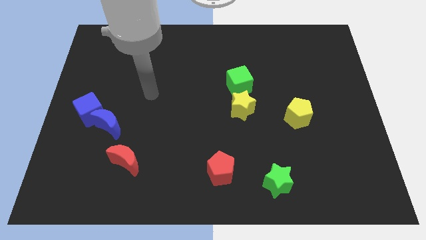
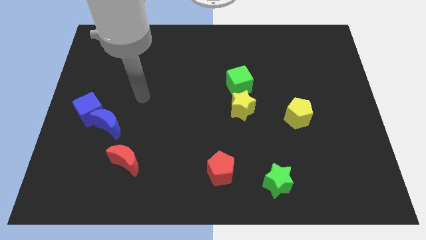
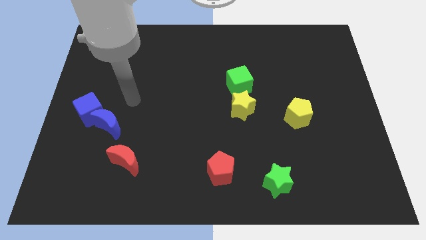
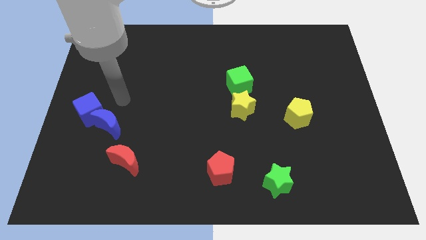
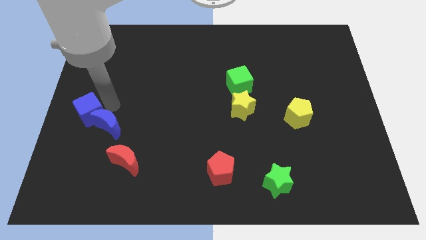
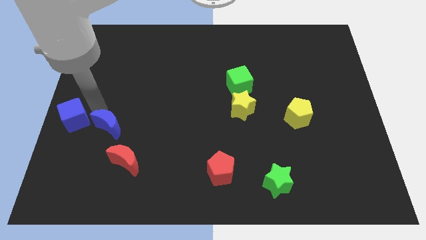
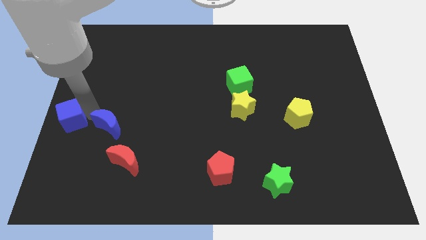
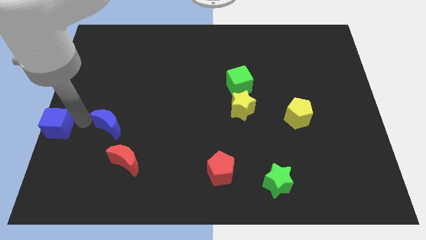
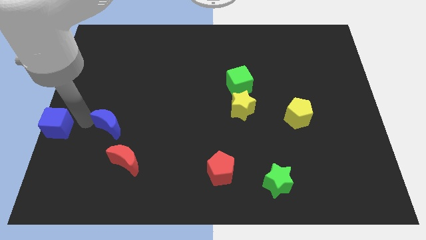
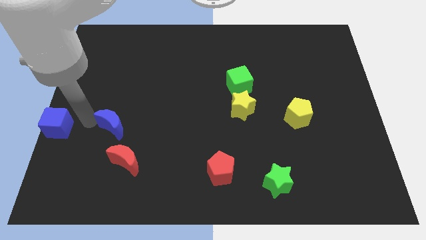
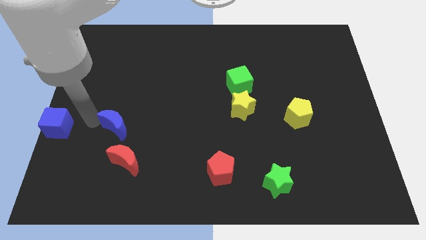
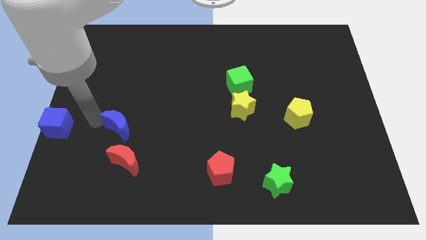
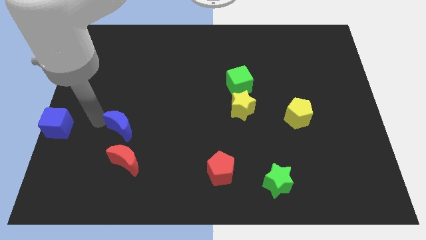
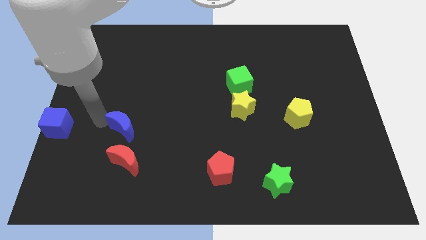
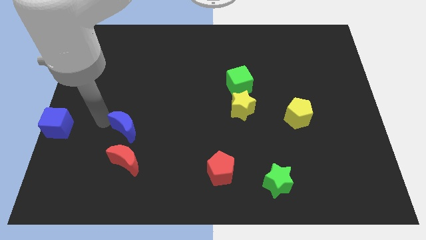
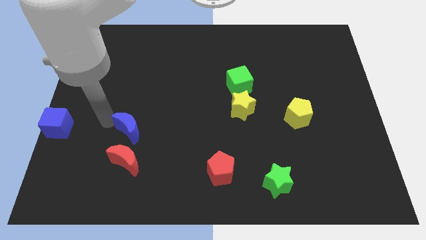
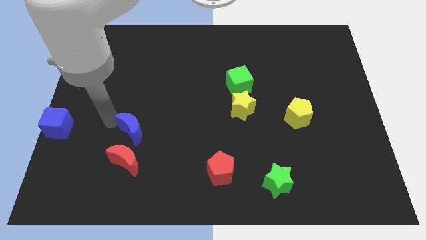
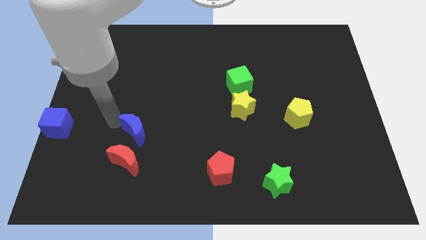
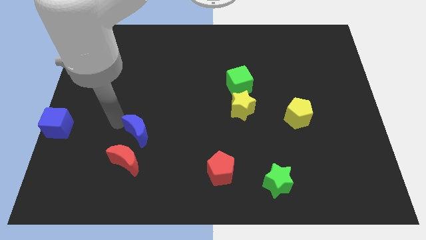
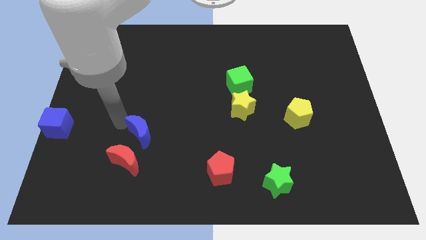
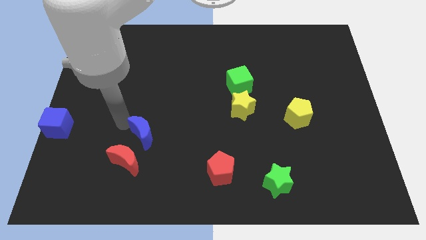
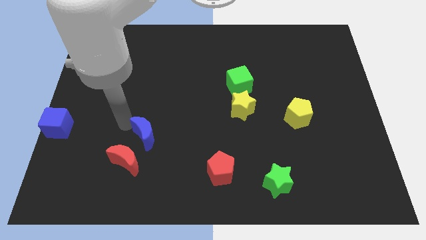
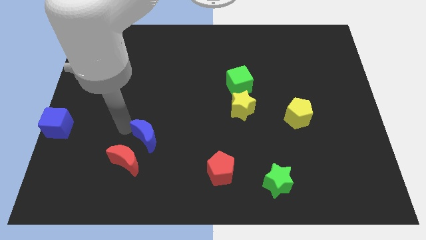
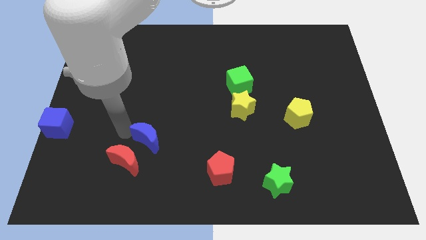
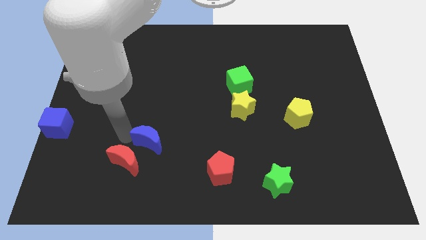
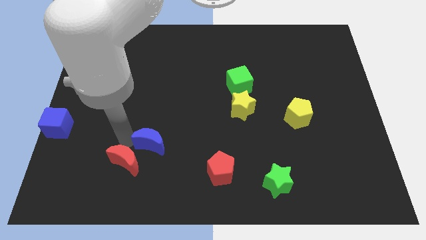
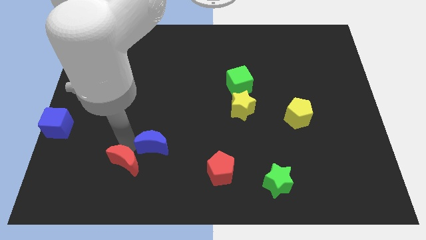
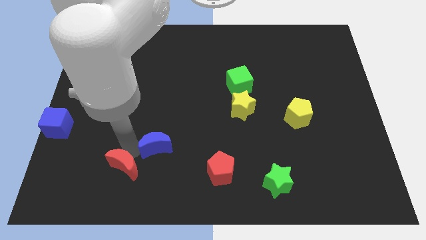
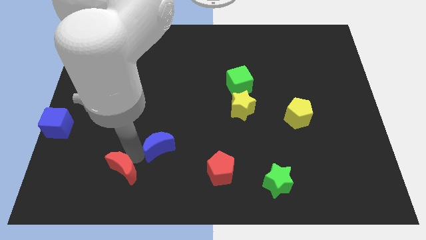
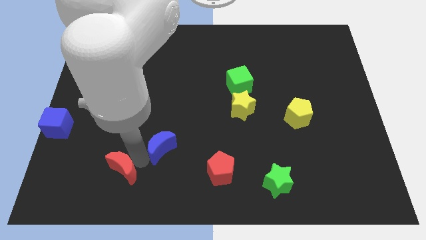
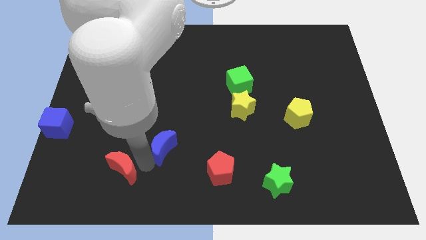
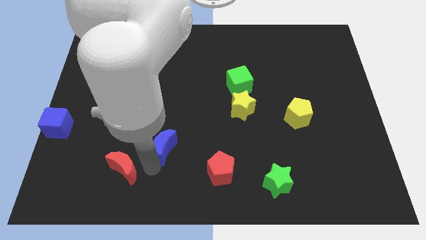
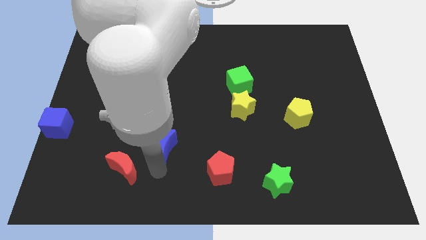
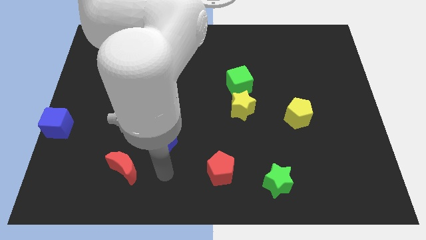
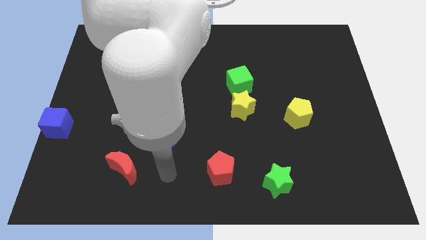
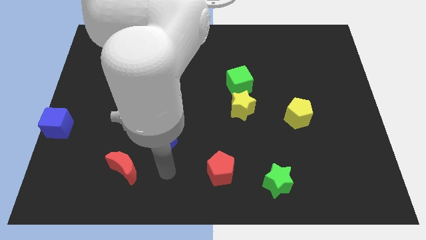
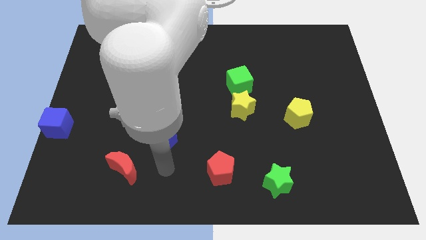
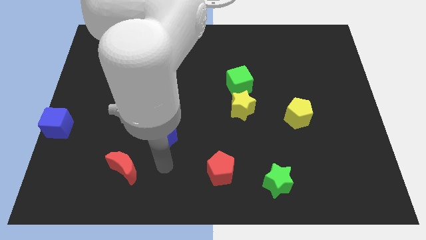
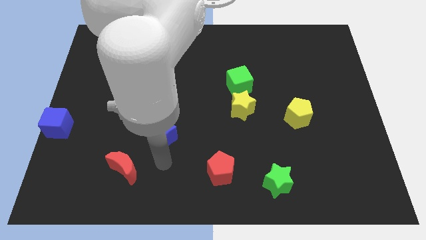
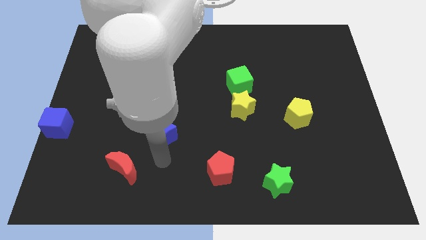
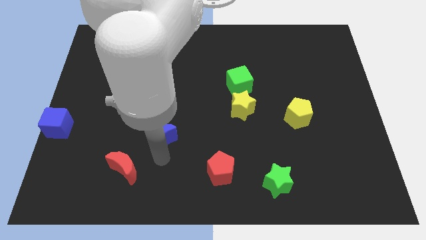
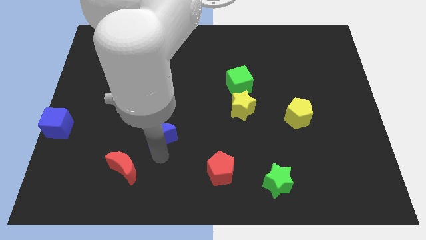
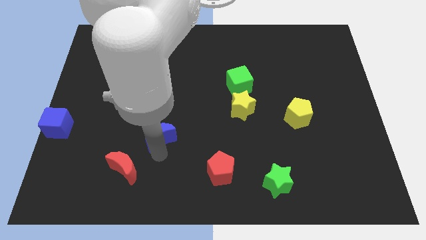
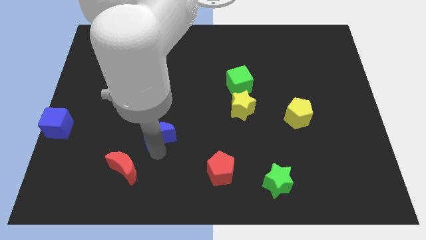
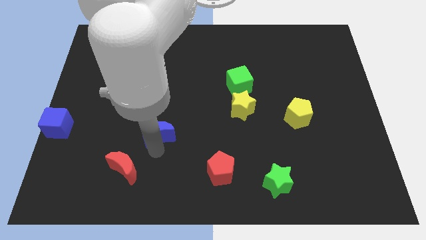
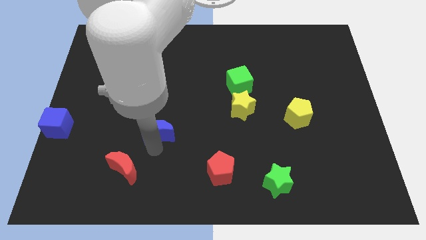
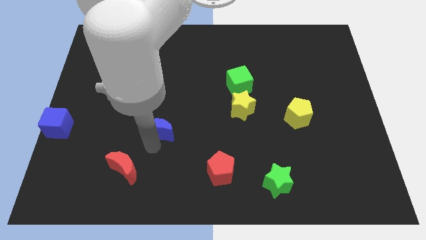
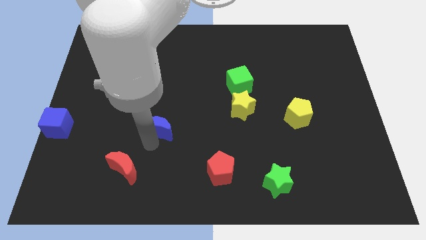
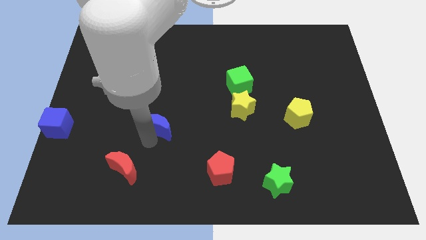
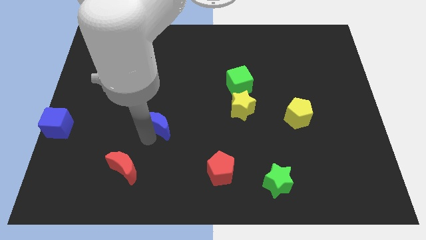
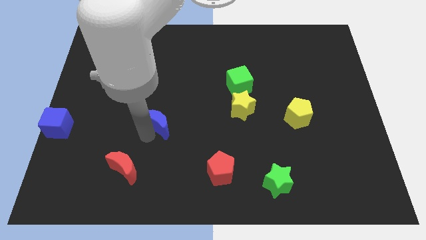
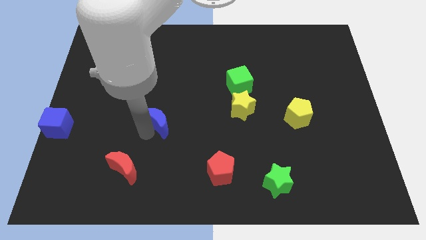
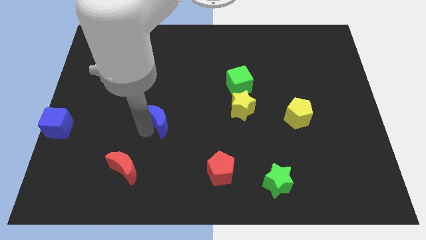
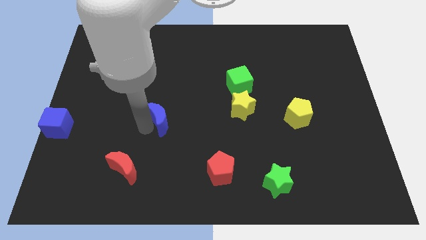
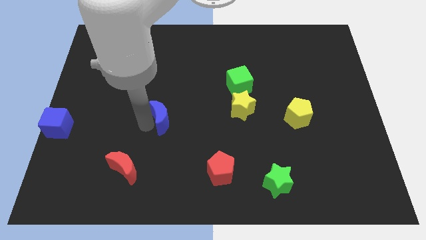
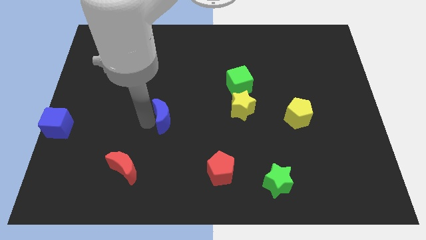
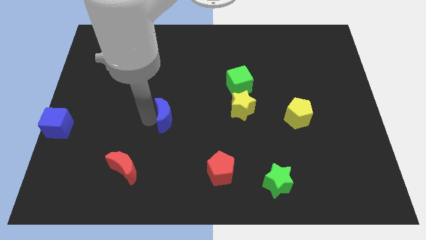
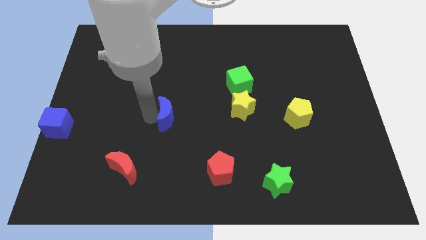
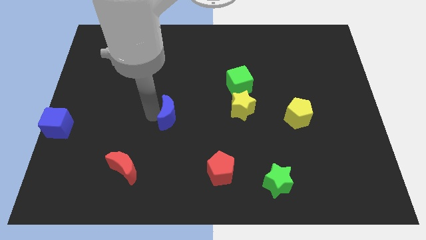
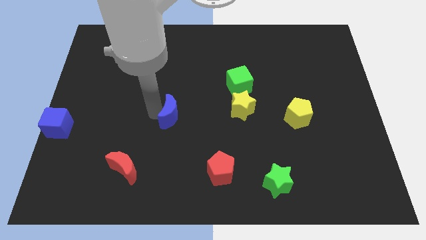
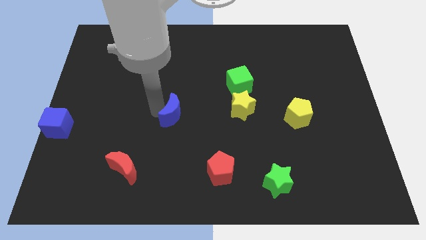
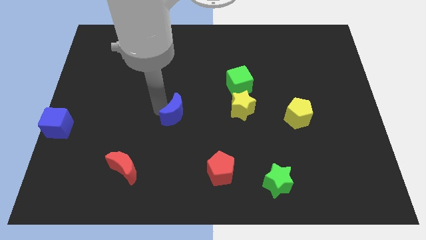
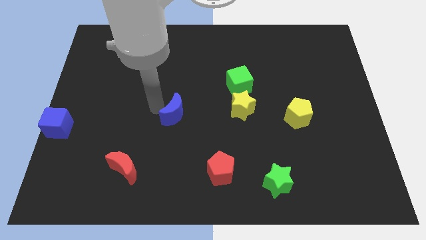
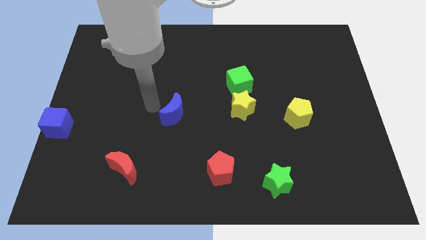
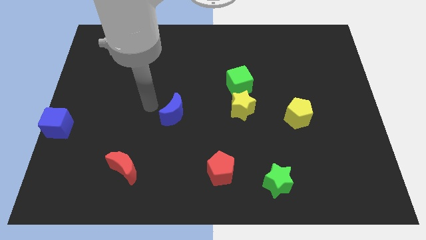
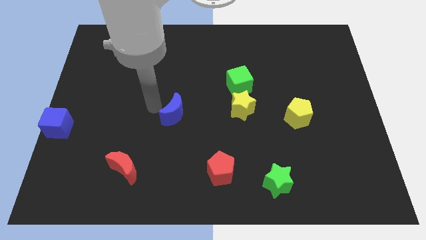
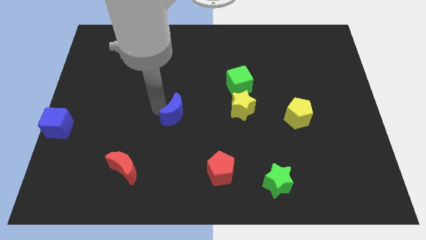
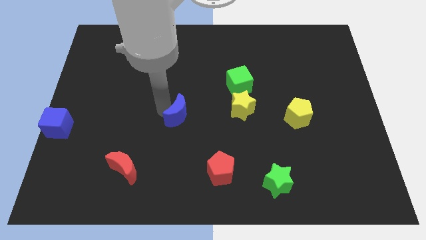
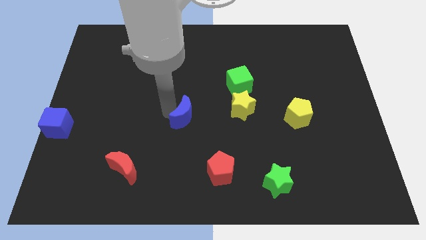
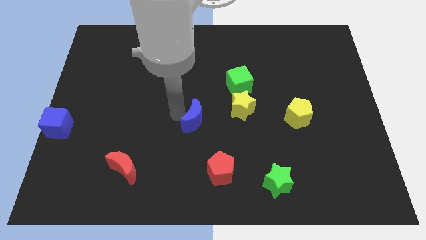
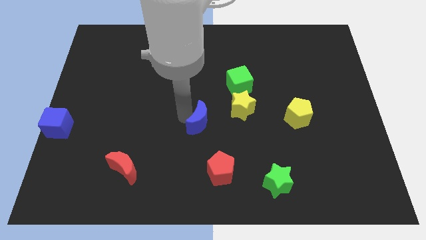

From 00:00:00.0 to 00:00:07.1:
slide the blue moon diagonally down and to the left of the yellow star
